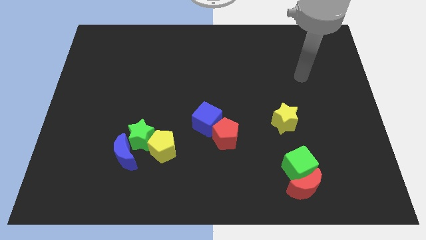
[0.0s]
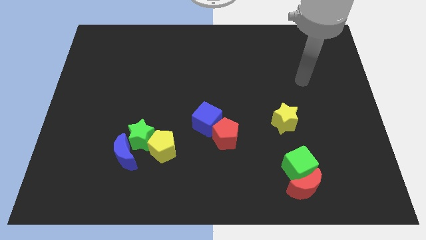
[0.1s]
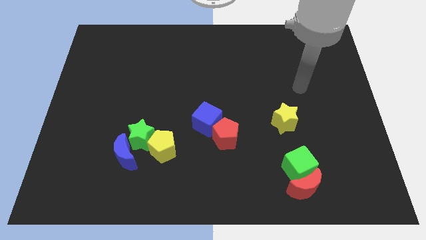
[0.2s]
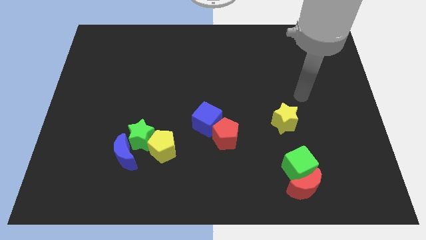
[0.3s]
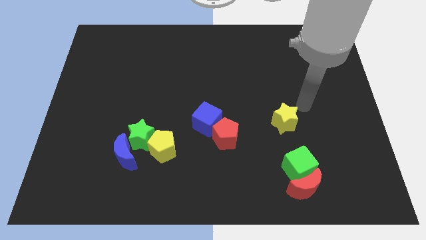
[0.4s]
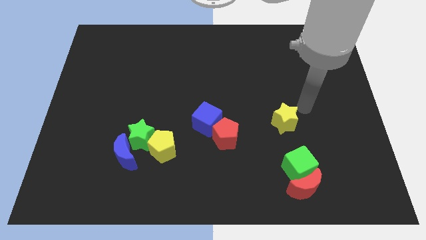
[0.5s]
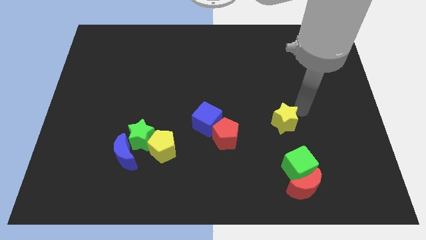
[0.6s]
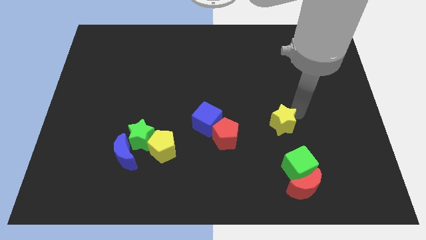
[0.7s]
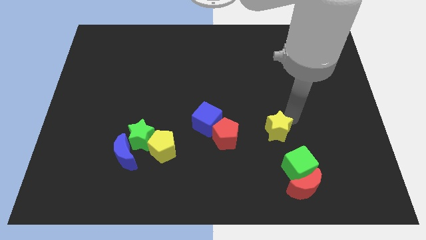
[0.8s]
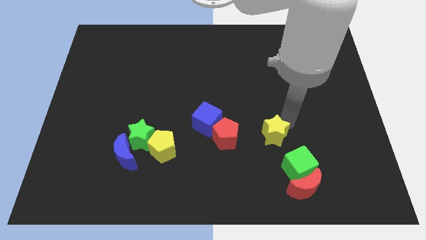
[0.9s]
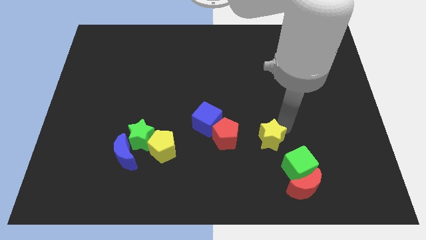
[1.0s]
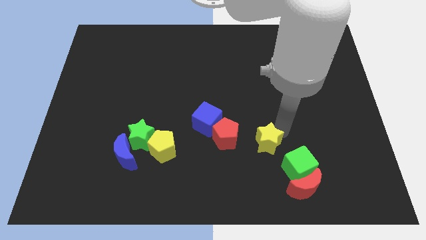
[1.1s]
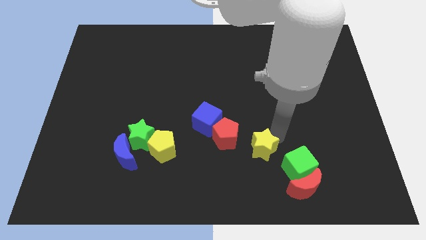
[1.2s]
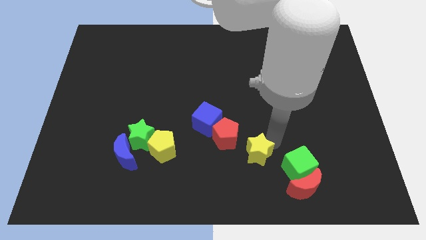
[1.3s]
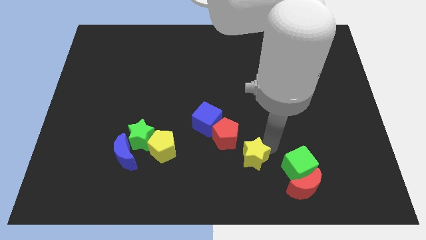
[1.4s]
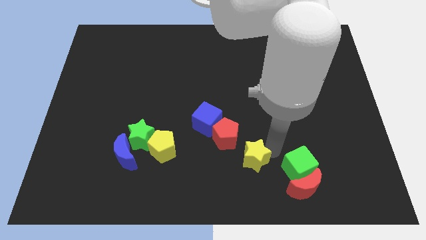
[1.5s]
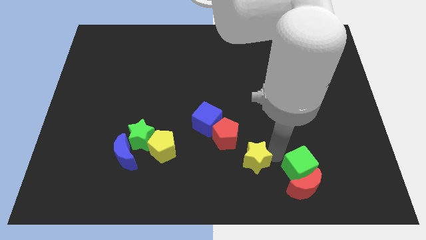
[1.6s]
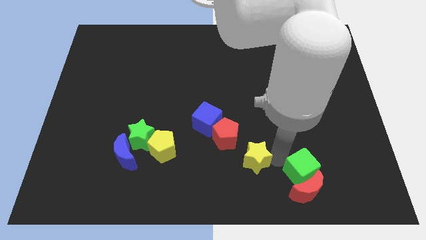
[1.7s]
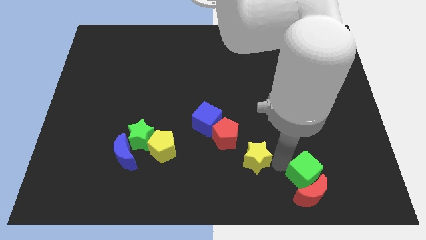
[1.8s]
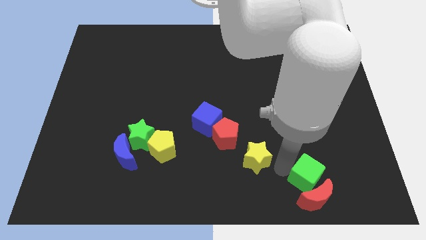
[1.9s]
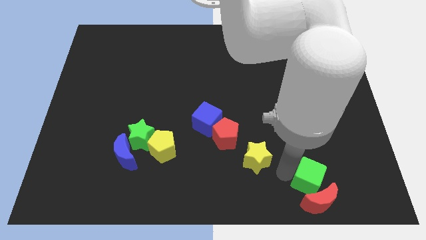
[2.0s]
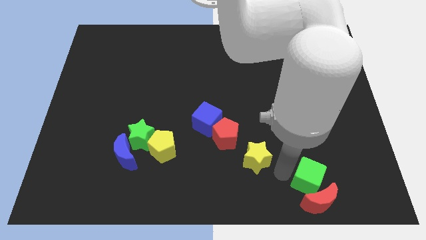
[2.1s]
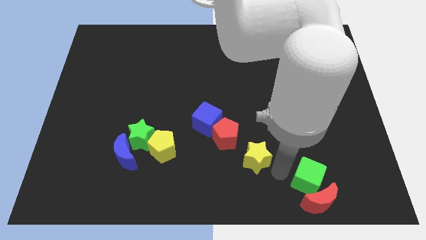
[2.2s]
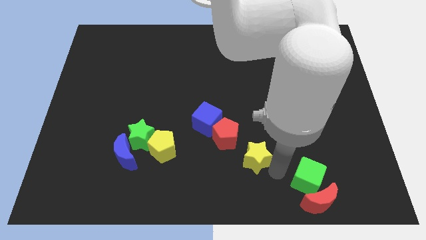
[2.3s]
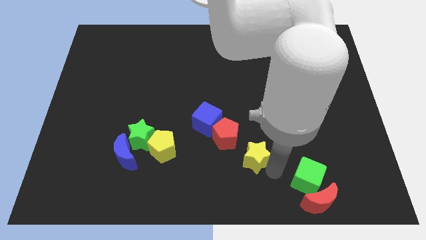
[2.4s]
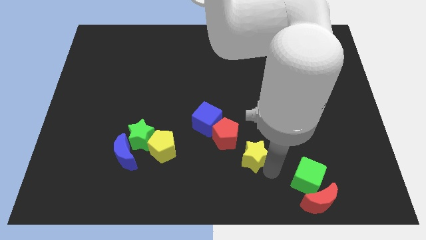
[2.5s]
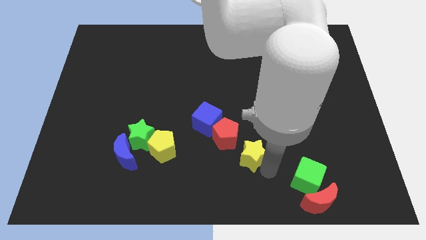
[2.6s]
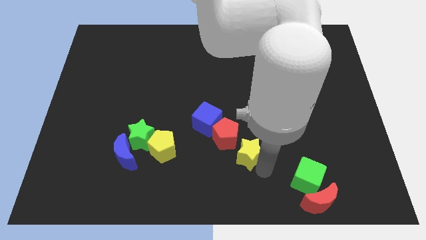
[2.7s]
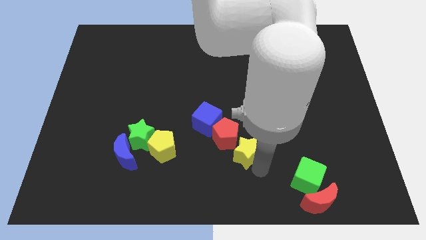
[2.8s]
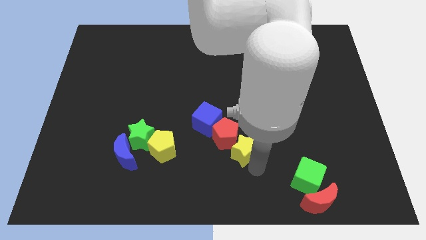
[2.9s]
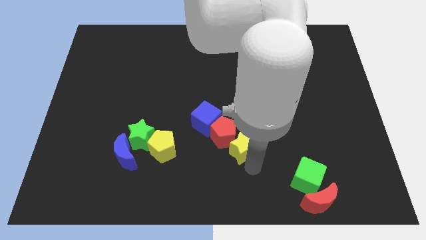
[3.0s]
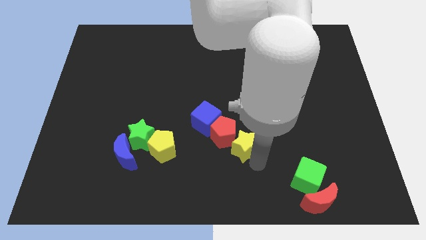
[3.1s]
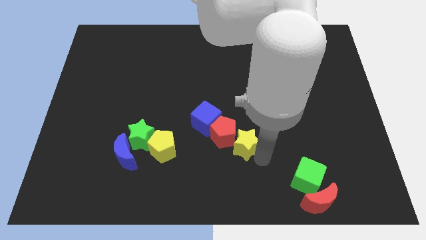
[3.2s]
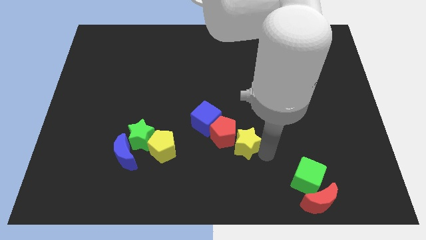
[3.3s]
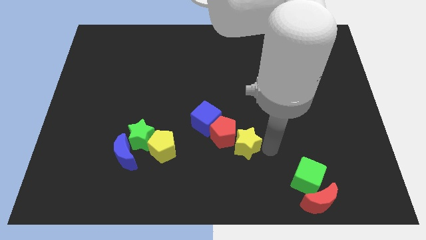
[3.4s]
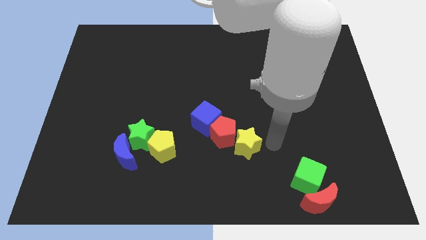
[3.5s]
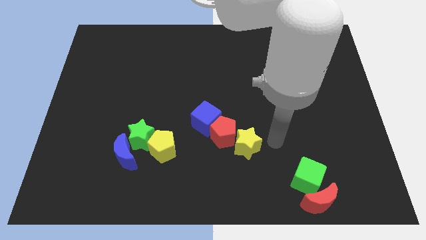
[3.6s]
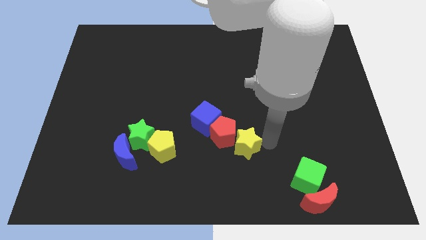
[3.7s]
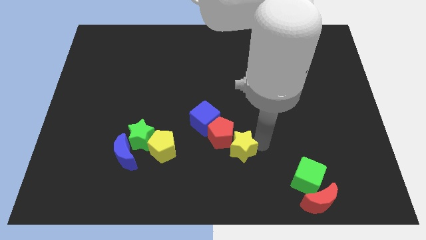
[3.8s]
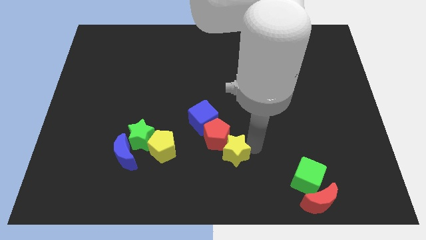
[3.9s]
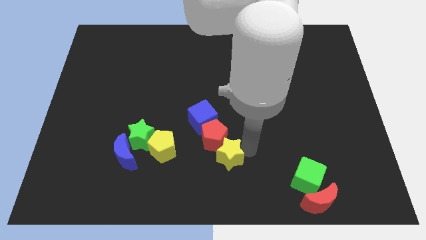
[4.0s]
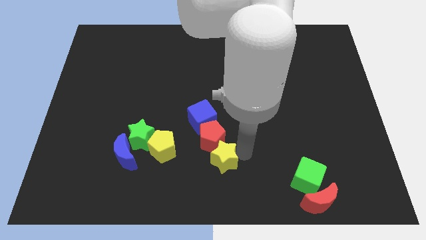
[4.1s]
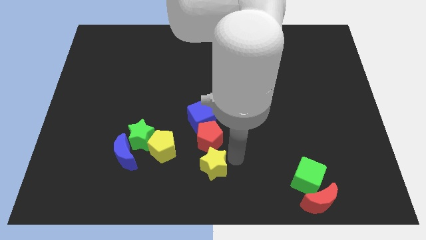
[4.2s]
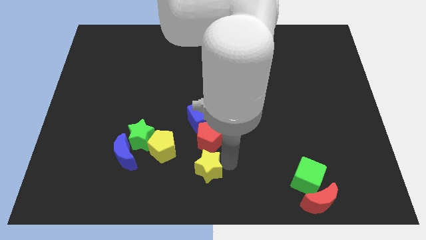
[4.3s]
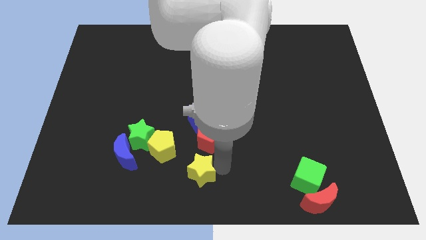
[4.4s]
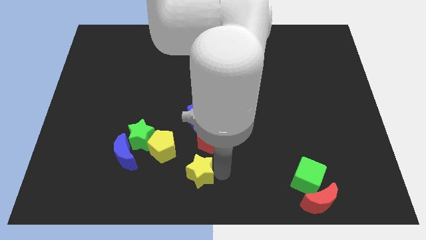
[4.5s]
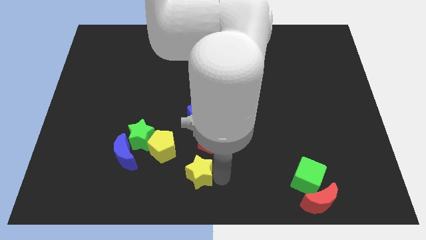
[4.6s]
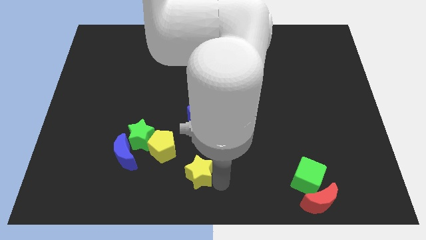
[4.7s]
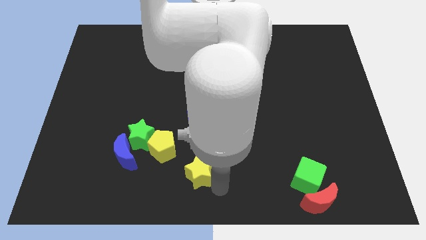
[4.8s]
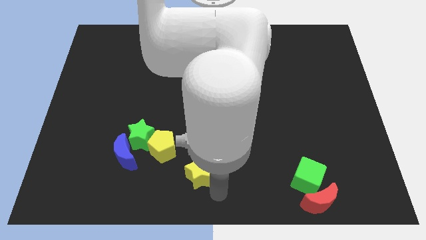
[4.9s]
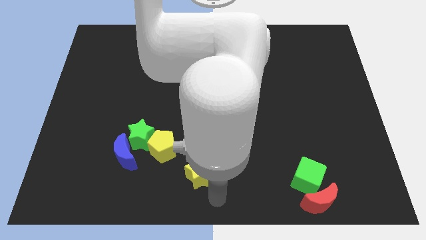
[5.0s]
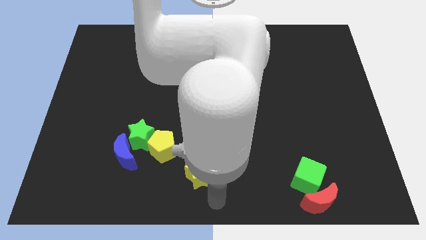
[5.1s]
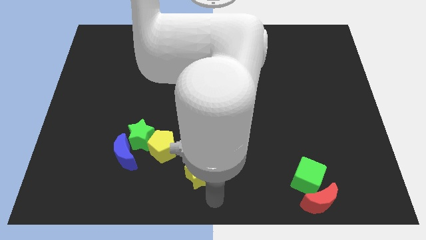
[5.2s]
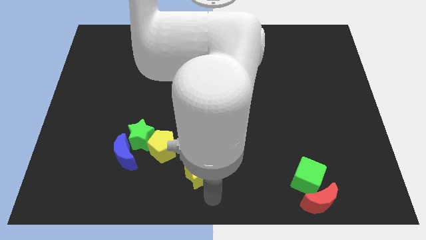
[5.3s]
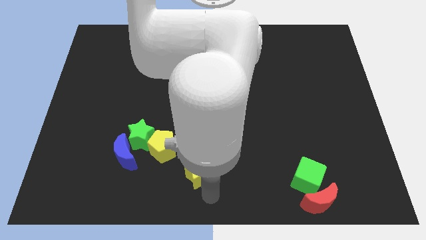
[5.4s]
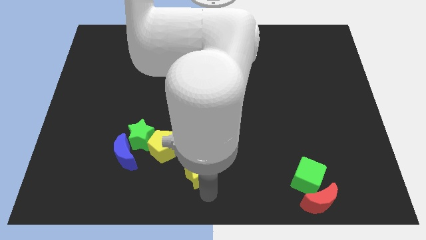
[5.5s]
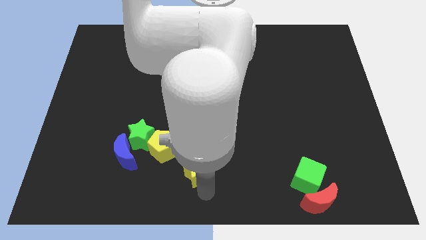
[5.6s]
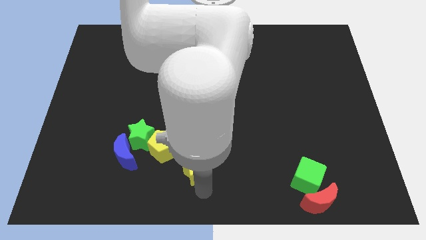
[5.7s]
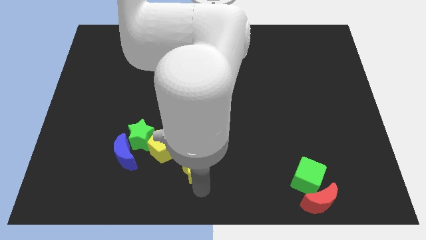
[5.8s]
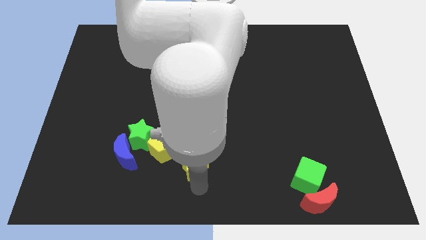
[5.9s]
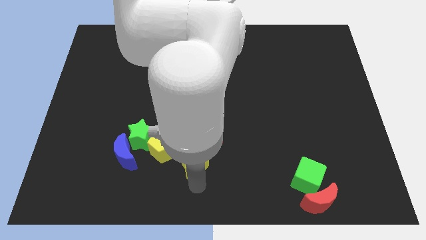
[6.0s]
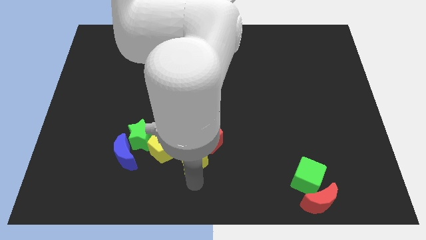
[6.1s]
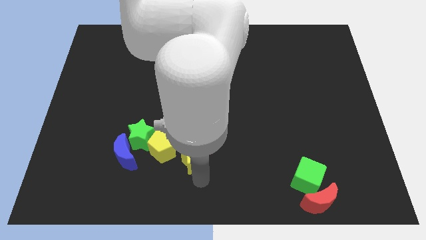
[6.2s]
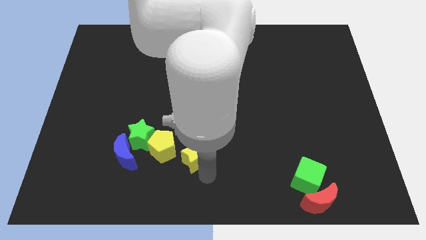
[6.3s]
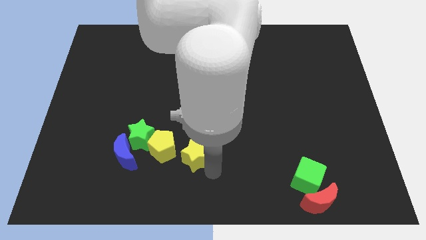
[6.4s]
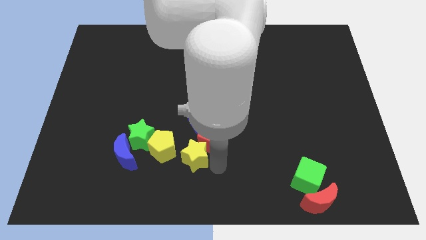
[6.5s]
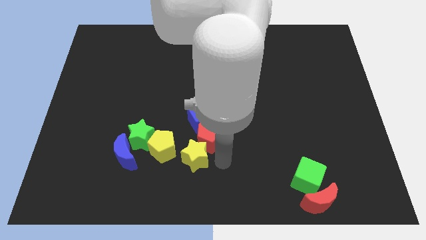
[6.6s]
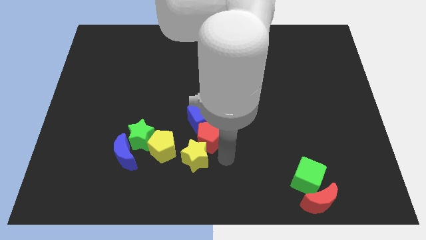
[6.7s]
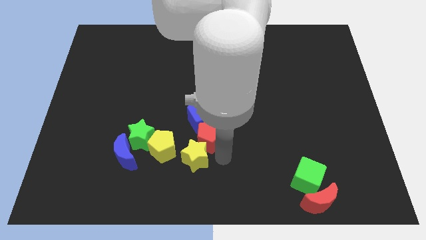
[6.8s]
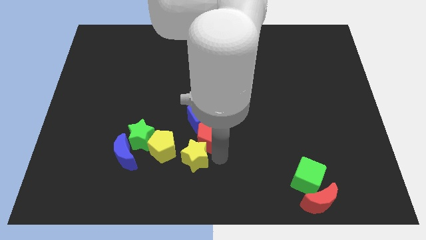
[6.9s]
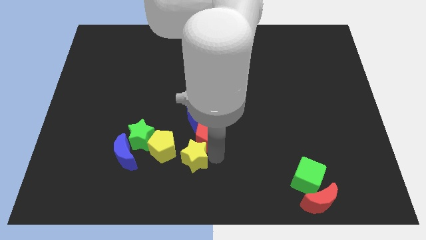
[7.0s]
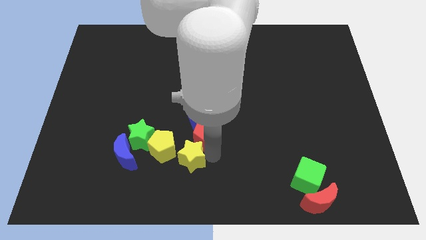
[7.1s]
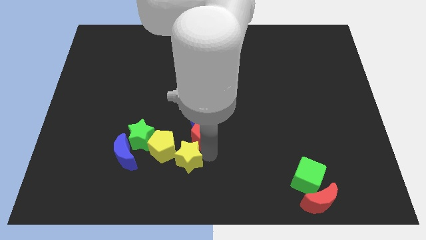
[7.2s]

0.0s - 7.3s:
move the yellow star to the bottom right of the green star

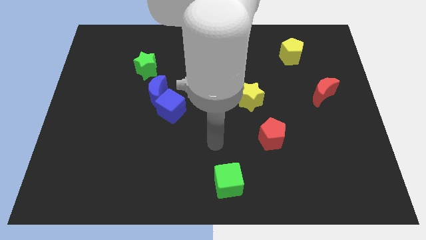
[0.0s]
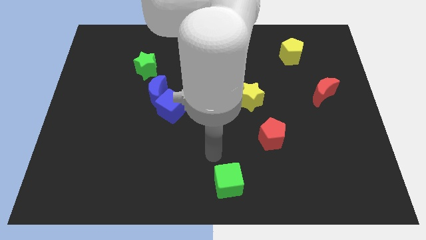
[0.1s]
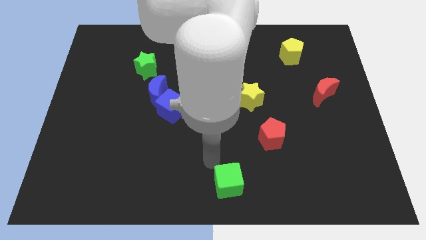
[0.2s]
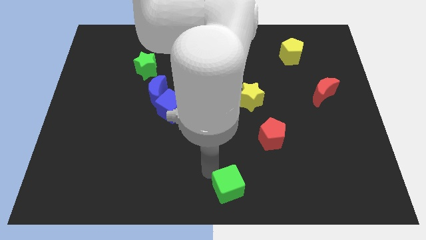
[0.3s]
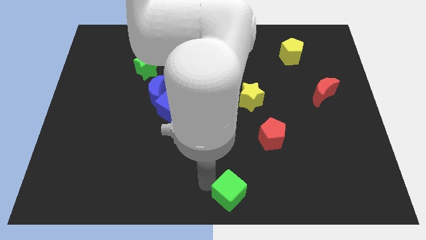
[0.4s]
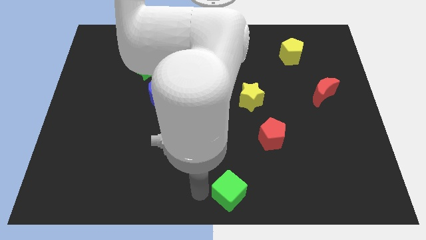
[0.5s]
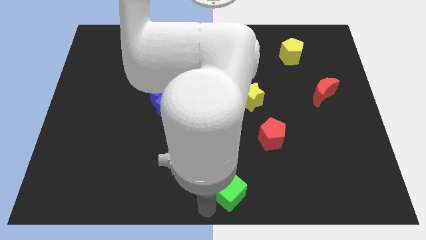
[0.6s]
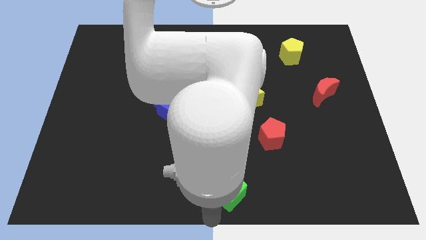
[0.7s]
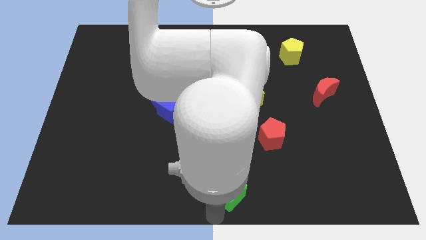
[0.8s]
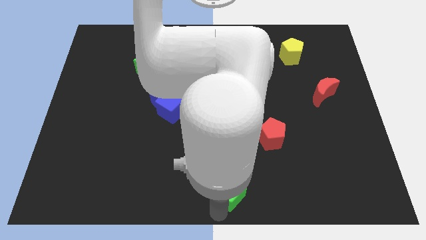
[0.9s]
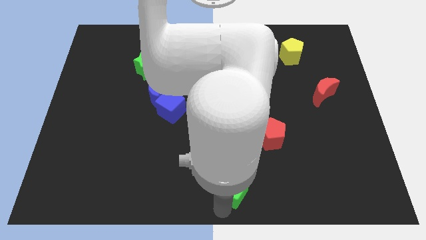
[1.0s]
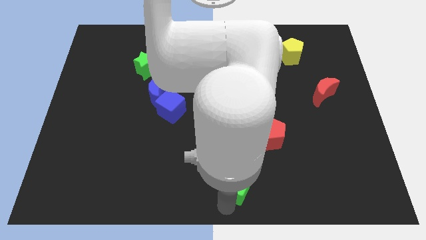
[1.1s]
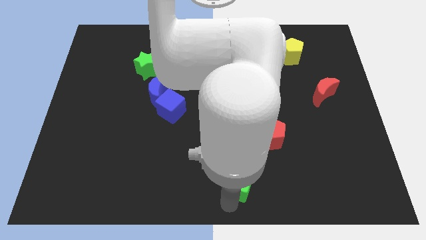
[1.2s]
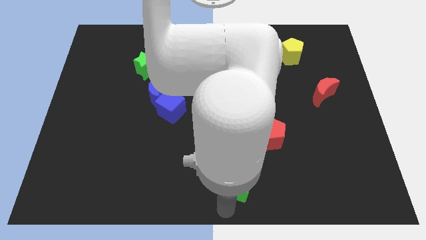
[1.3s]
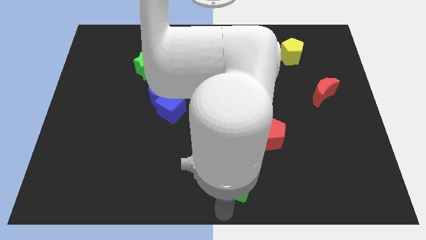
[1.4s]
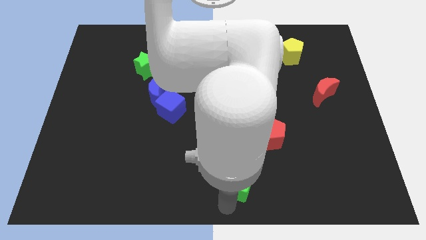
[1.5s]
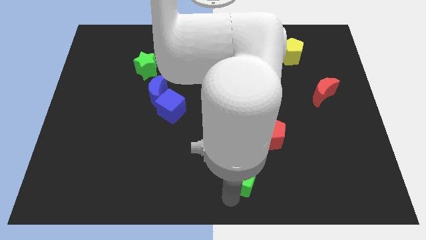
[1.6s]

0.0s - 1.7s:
slide the green cube diagonally down and to the left of the red pentagon
